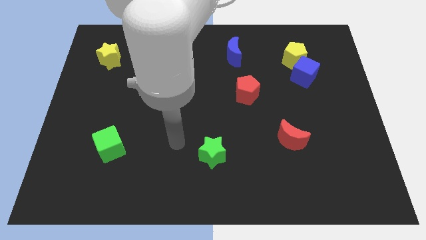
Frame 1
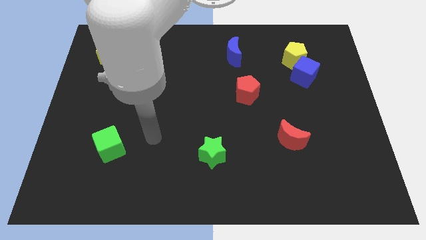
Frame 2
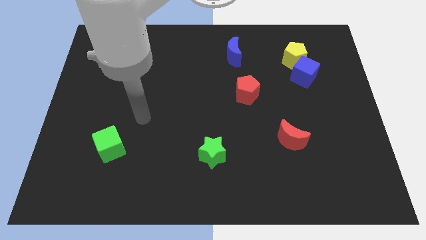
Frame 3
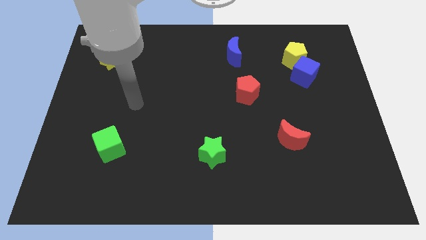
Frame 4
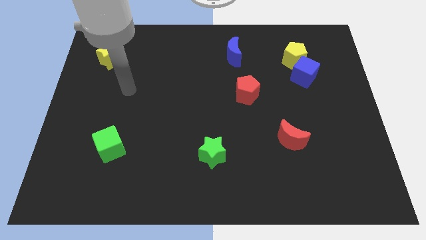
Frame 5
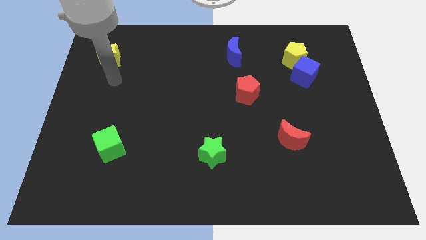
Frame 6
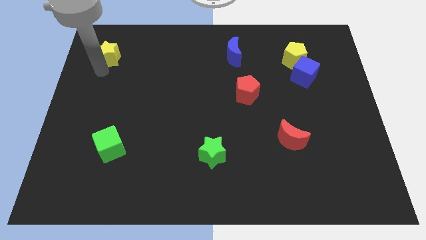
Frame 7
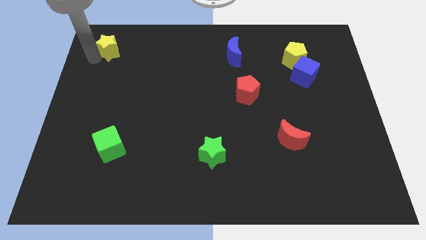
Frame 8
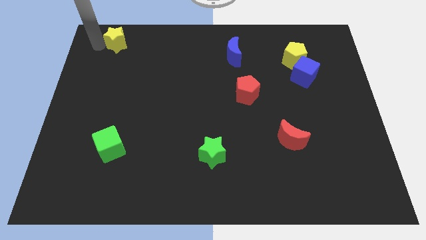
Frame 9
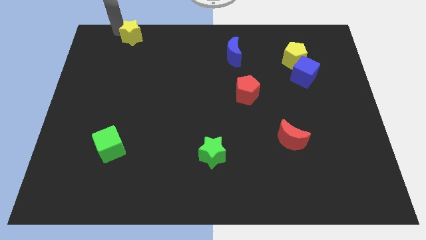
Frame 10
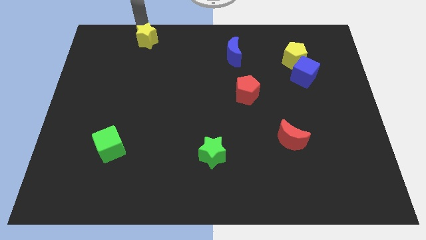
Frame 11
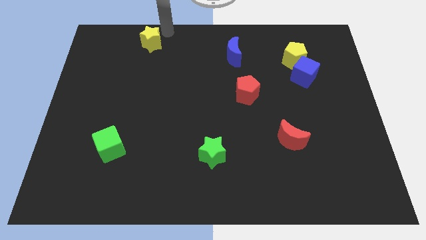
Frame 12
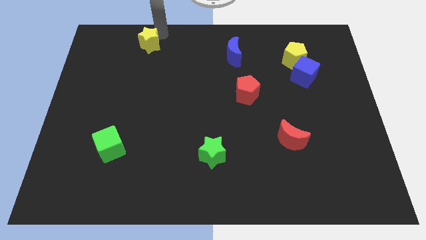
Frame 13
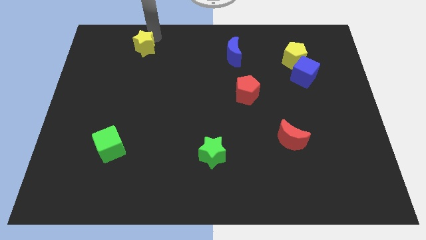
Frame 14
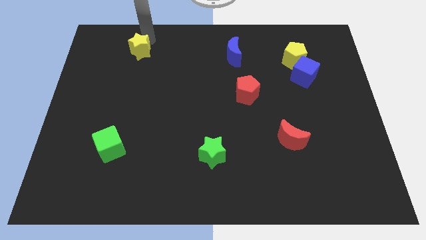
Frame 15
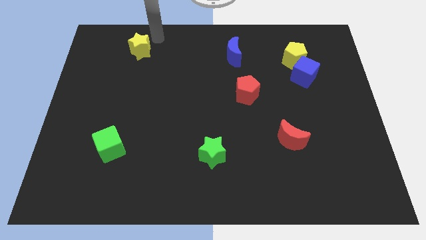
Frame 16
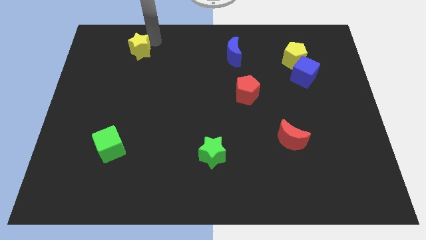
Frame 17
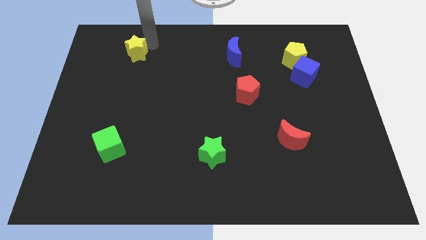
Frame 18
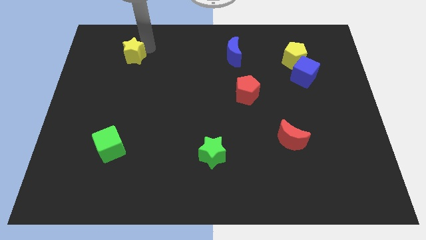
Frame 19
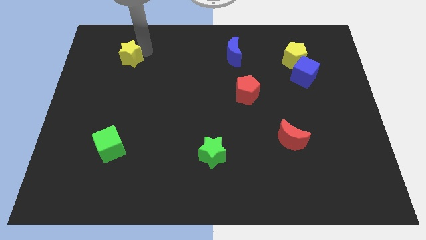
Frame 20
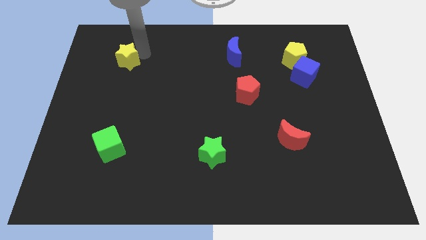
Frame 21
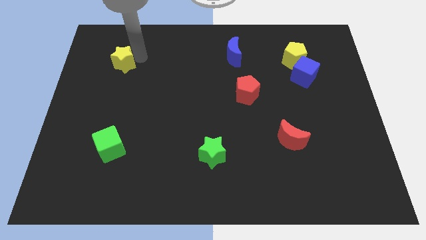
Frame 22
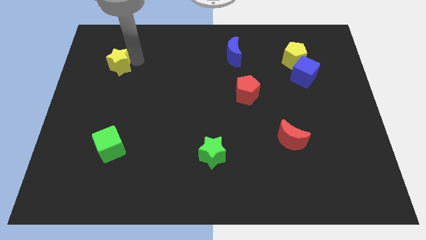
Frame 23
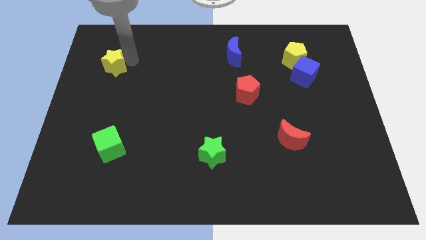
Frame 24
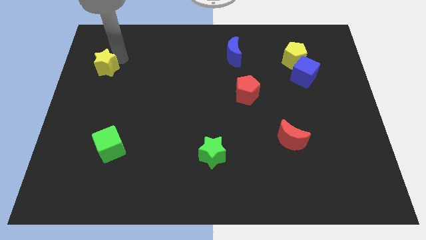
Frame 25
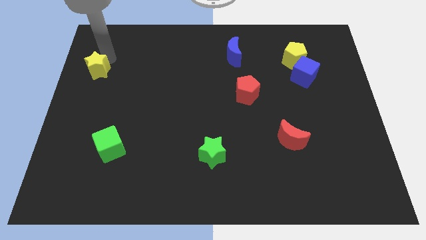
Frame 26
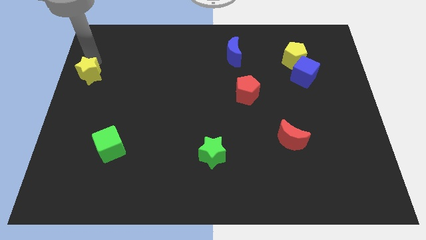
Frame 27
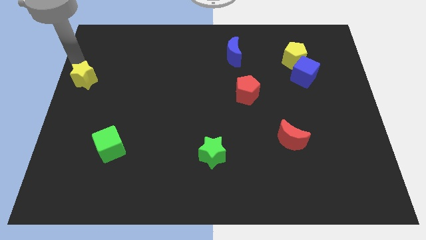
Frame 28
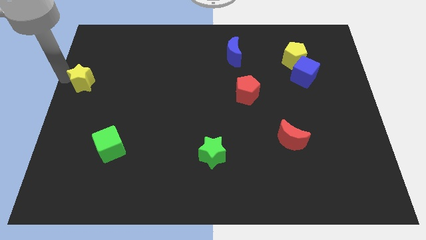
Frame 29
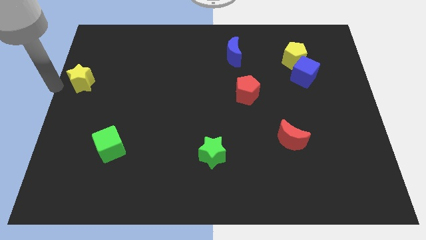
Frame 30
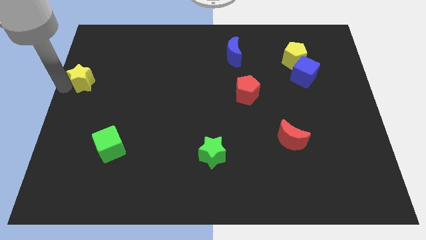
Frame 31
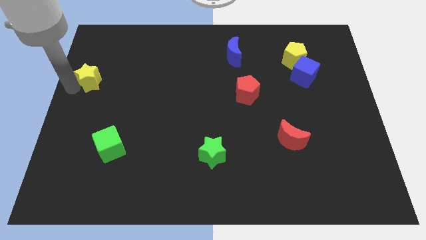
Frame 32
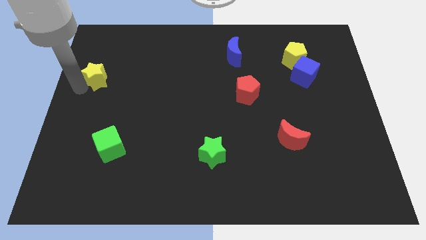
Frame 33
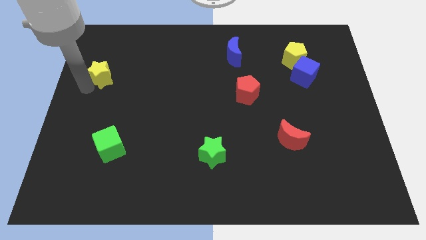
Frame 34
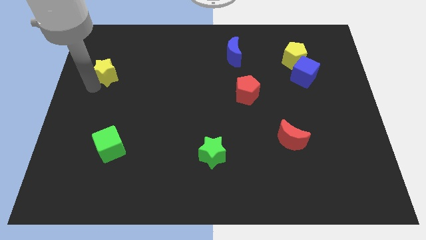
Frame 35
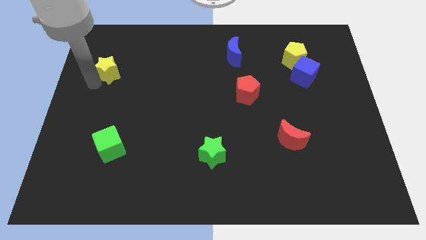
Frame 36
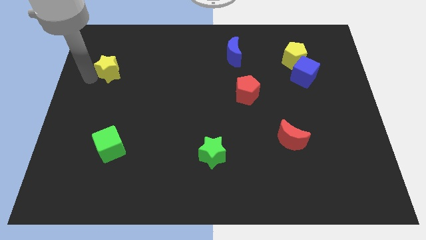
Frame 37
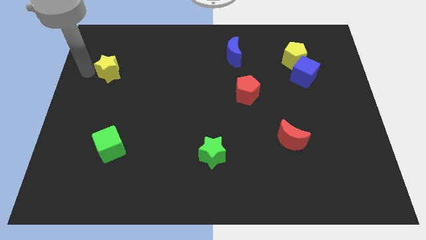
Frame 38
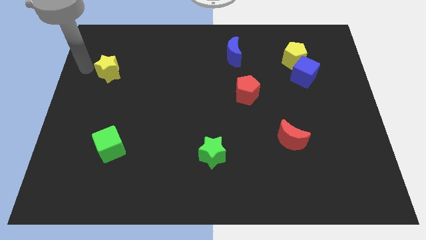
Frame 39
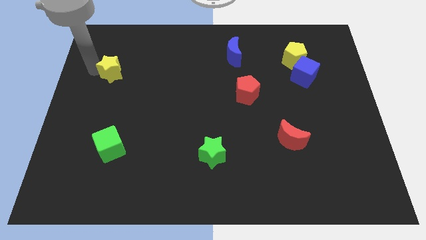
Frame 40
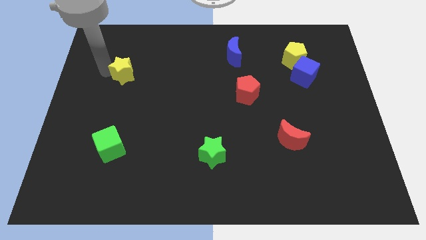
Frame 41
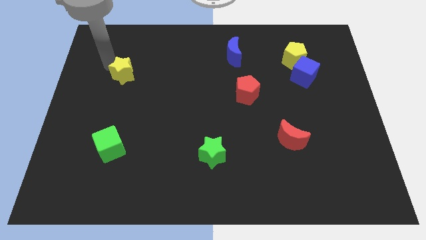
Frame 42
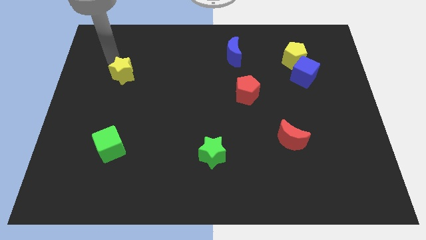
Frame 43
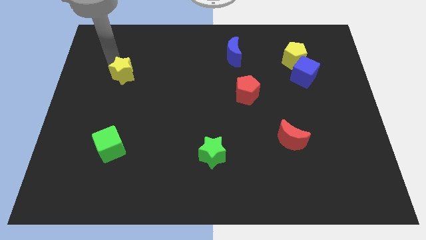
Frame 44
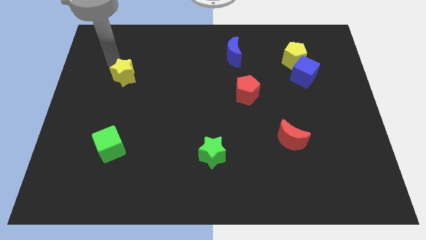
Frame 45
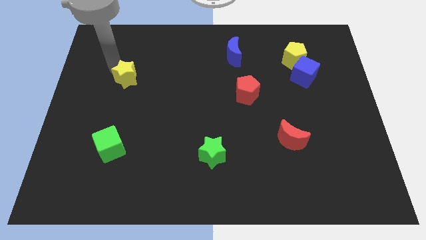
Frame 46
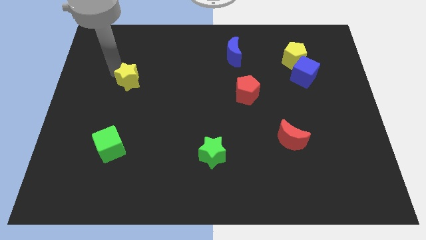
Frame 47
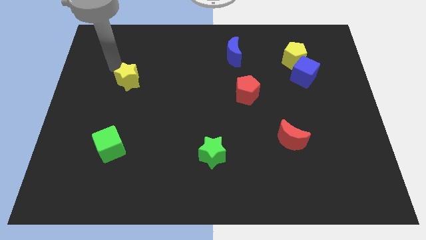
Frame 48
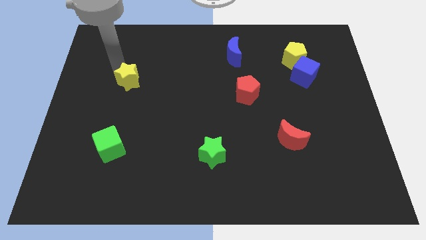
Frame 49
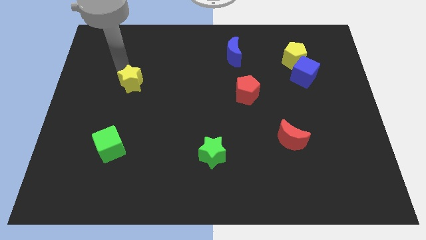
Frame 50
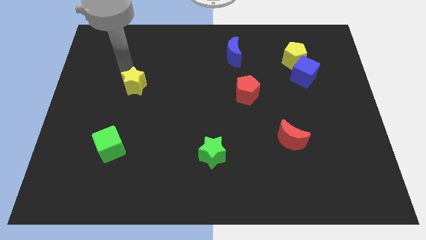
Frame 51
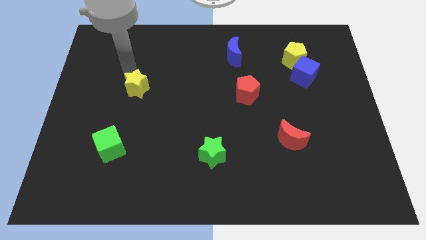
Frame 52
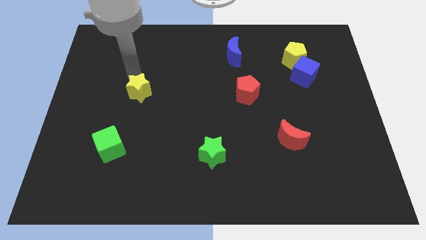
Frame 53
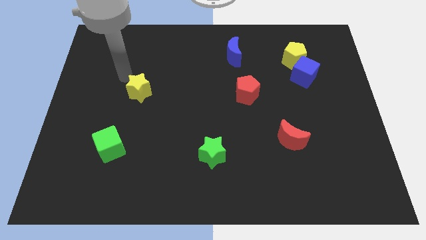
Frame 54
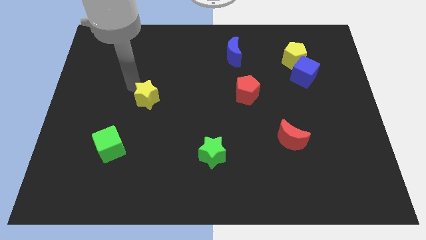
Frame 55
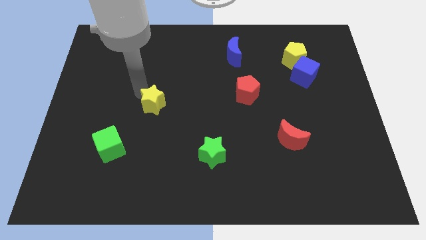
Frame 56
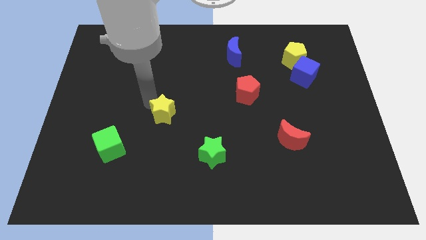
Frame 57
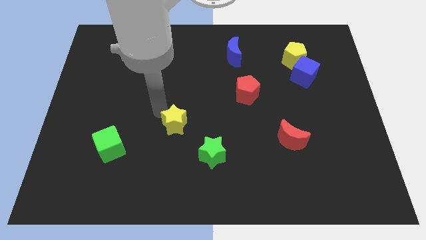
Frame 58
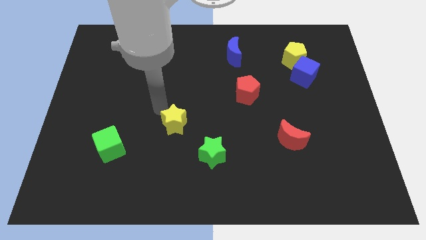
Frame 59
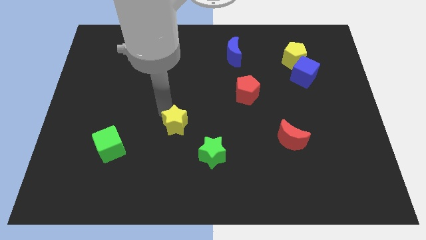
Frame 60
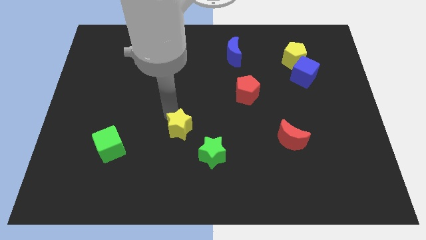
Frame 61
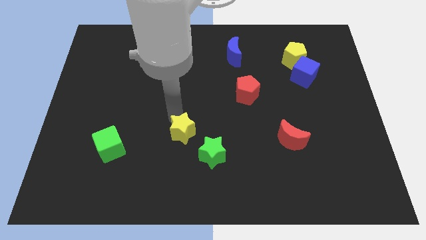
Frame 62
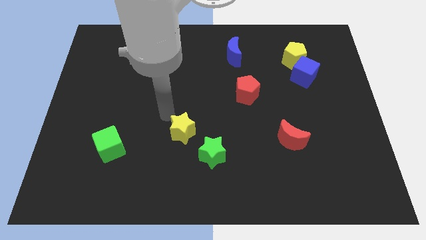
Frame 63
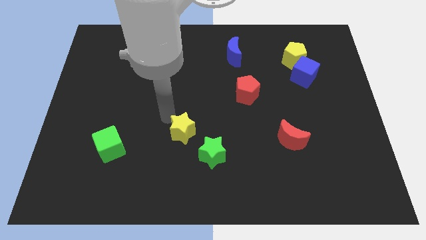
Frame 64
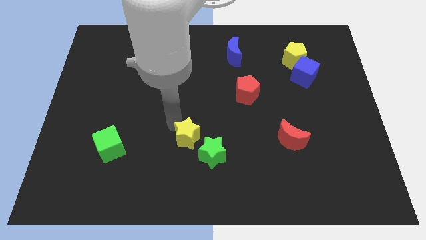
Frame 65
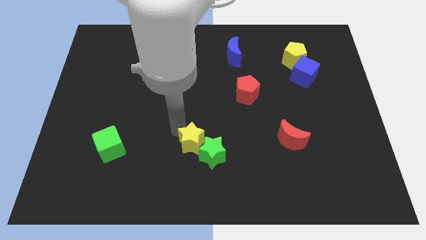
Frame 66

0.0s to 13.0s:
slide the yellow star to the green star
